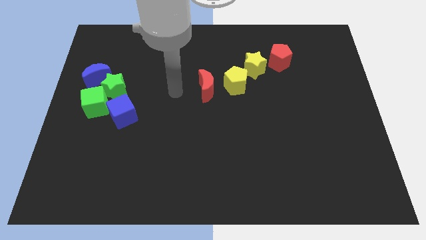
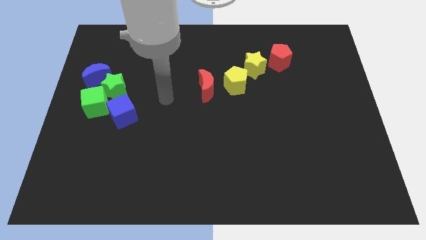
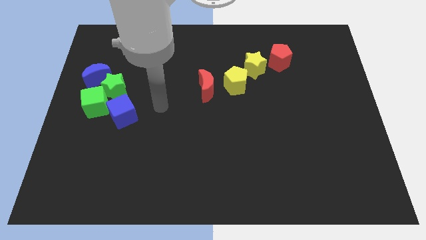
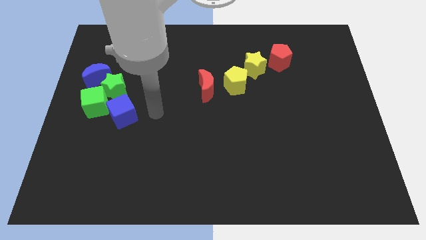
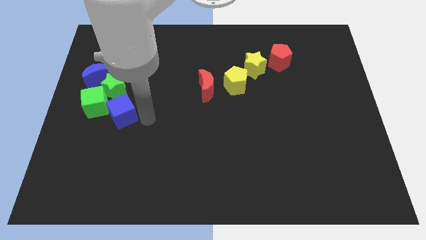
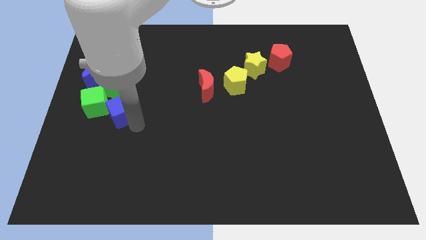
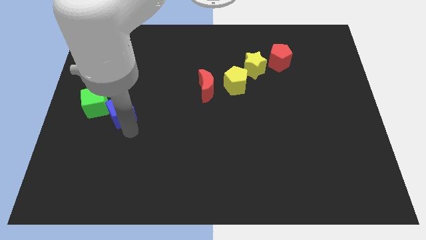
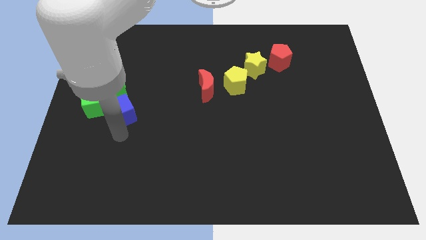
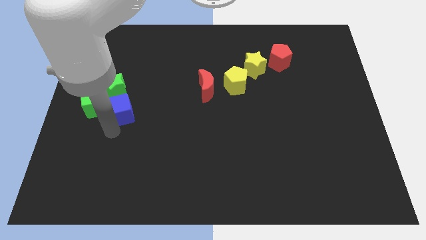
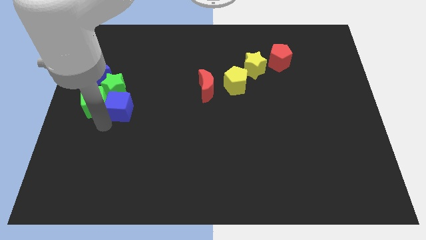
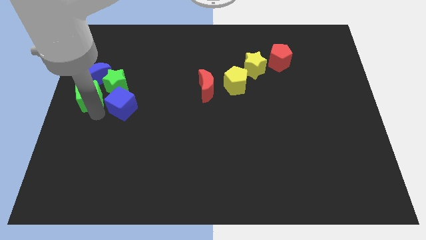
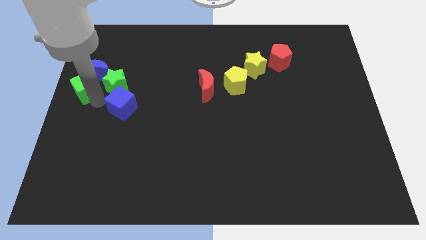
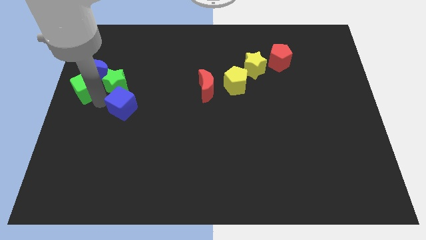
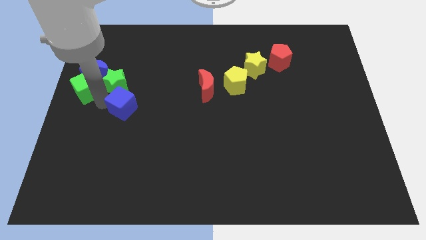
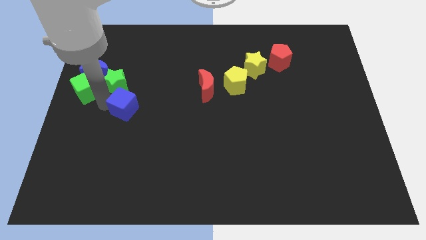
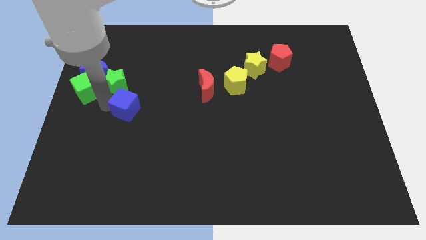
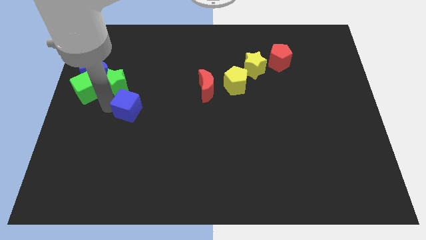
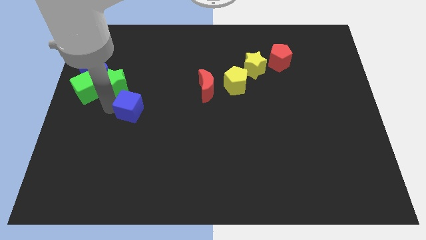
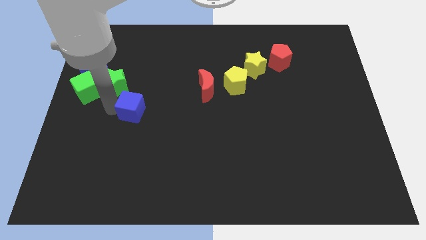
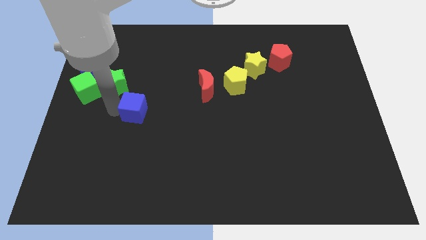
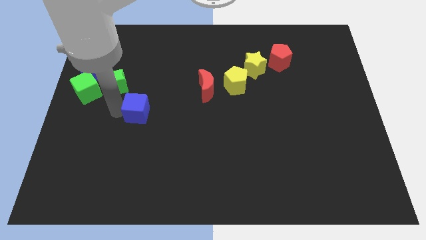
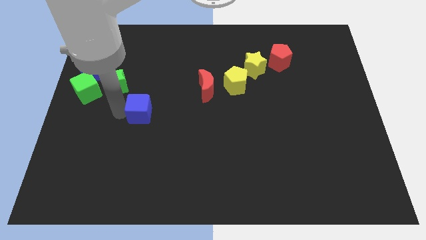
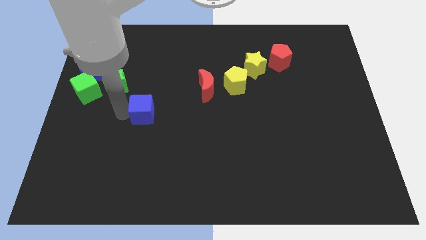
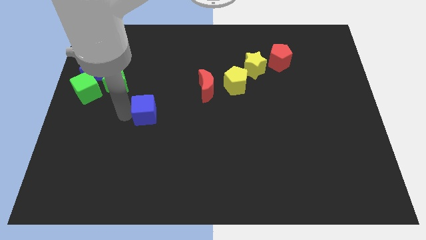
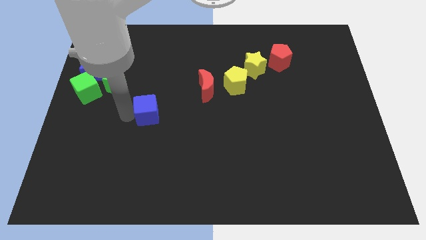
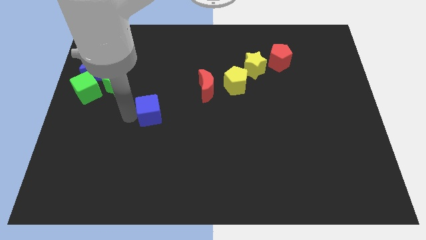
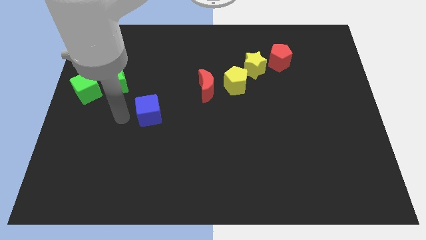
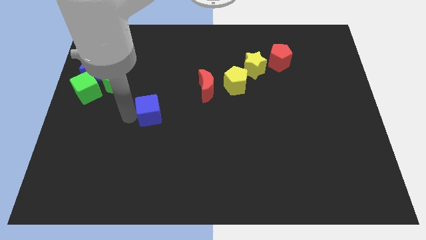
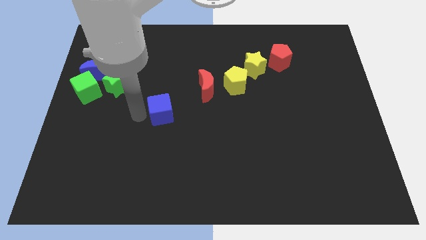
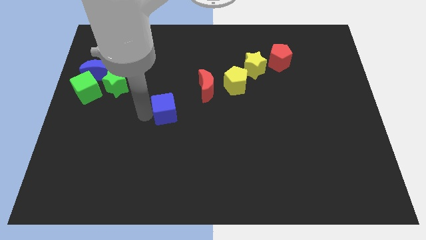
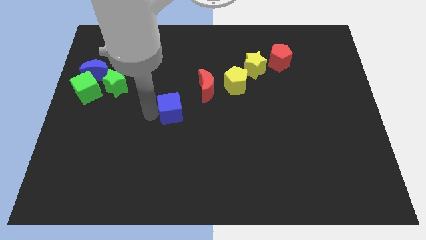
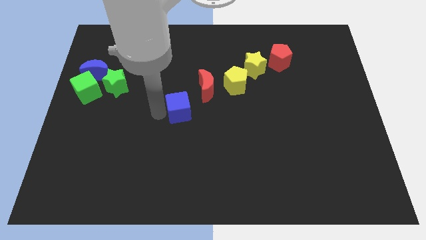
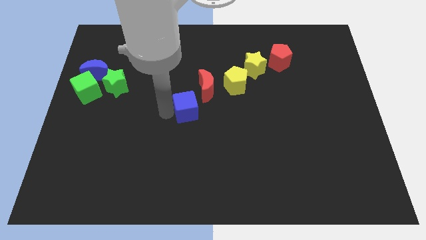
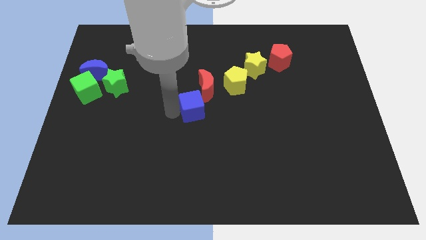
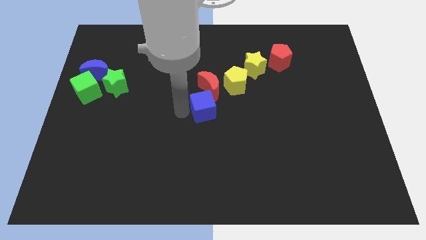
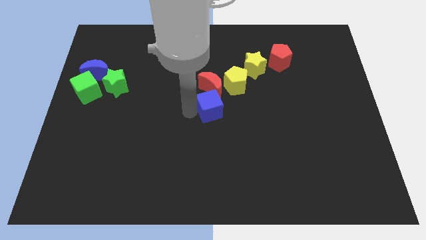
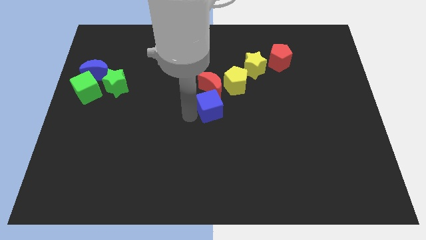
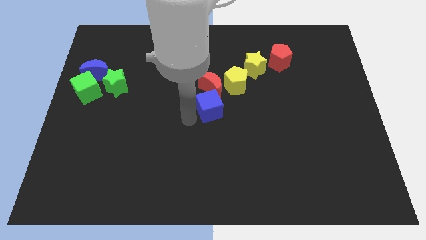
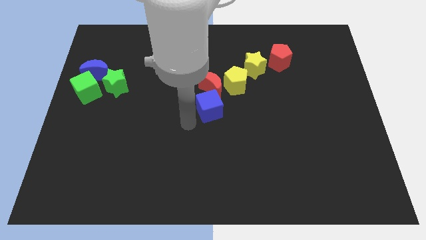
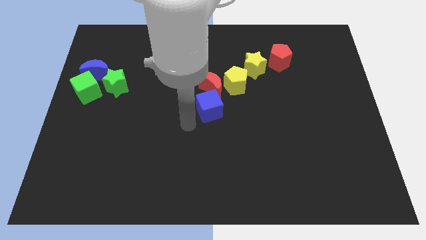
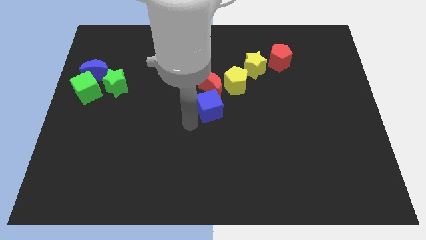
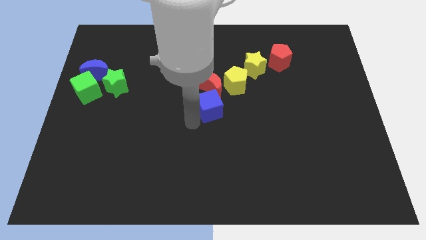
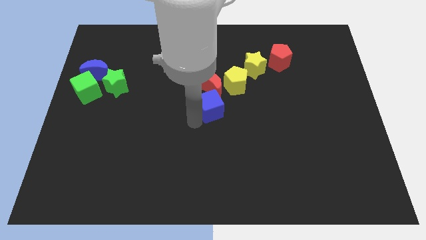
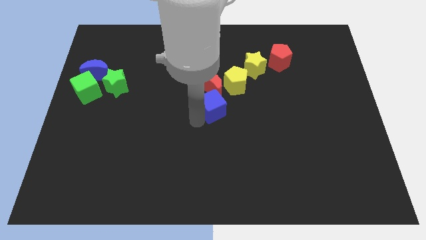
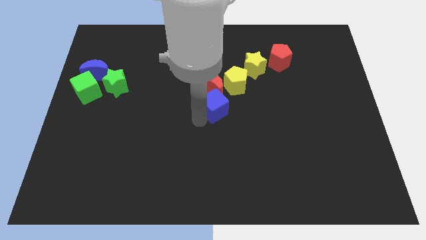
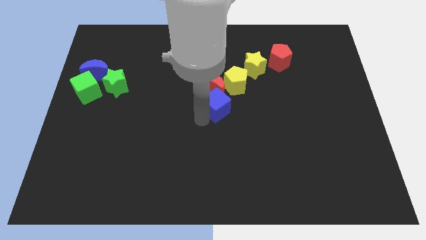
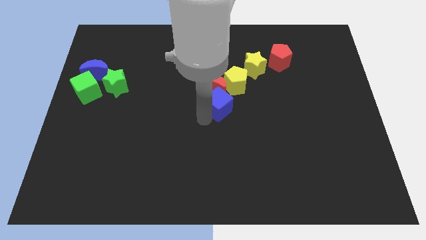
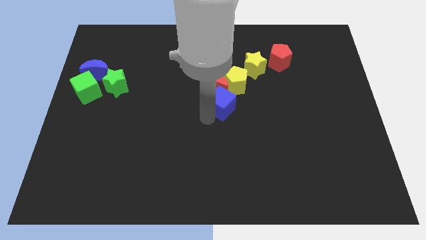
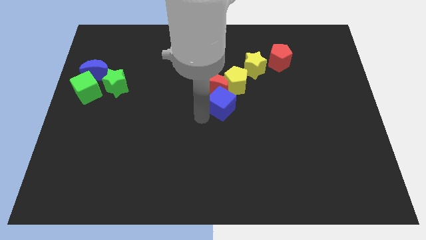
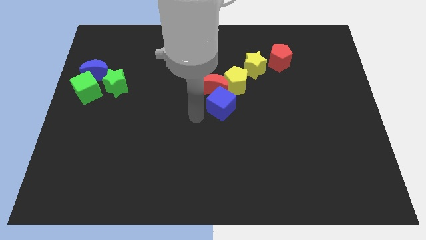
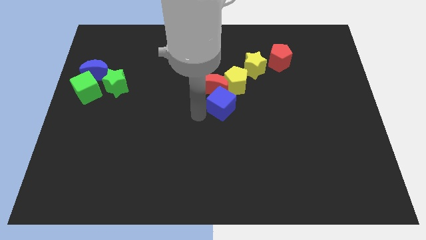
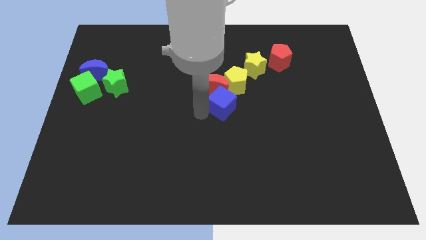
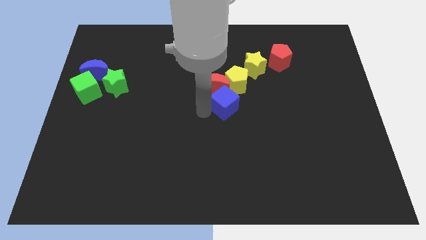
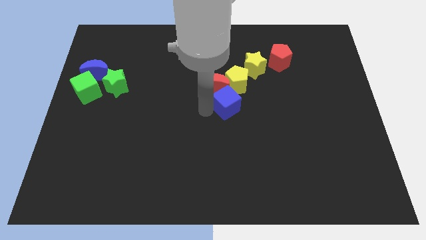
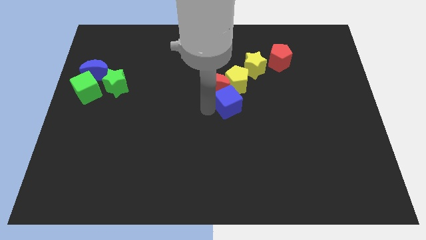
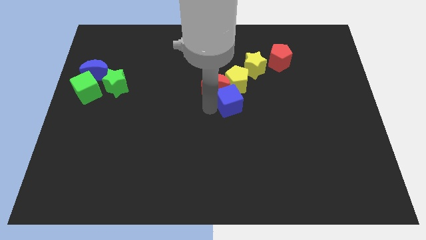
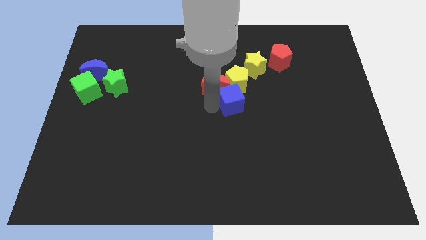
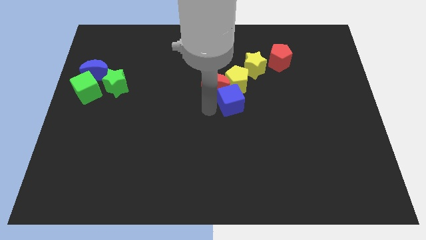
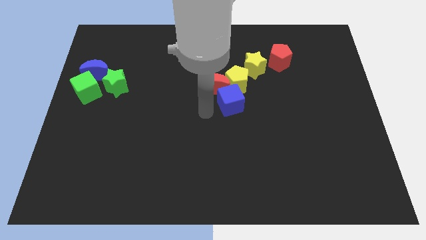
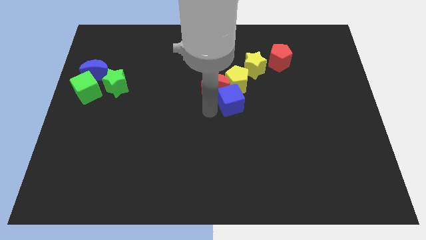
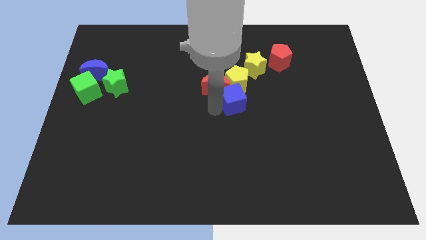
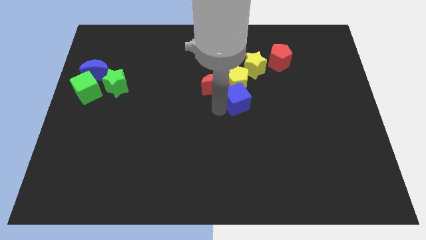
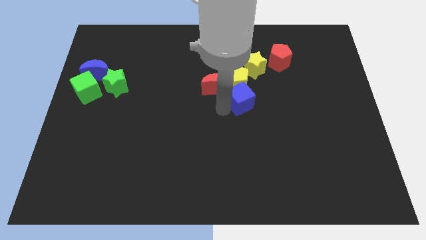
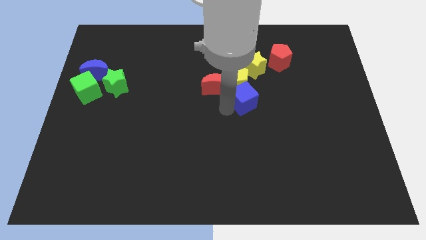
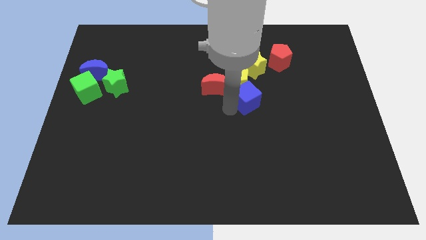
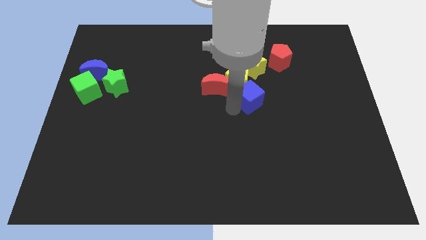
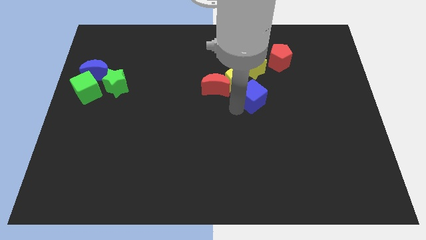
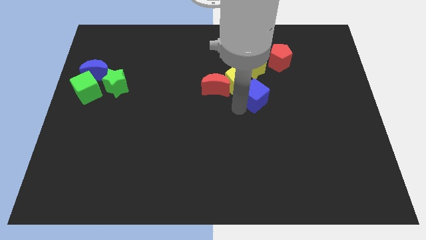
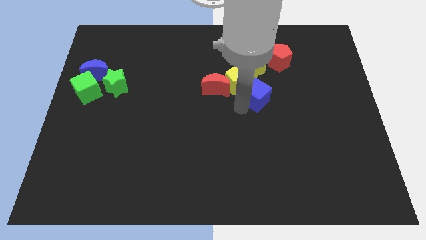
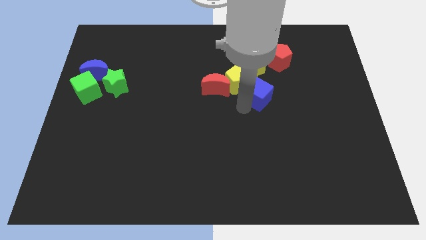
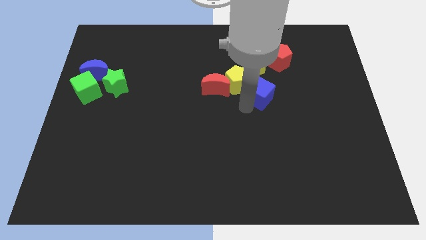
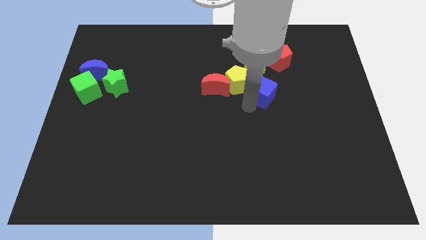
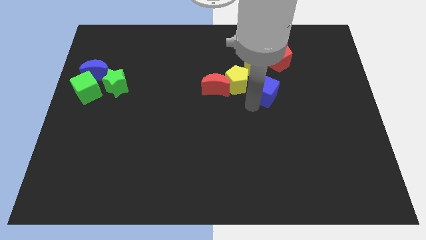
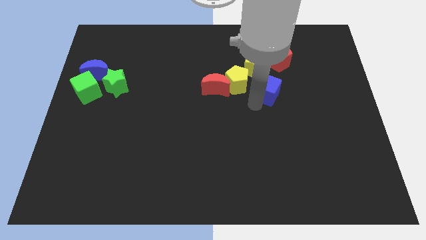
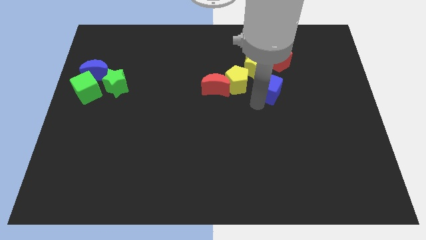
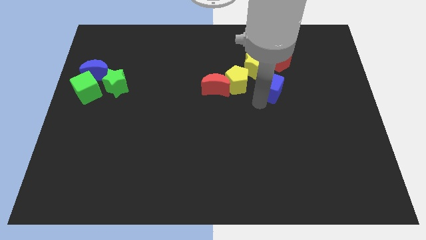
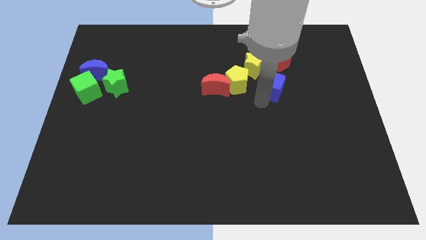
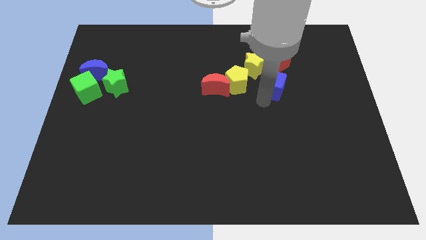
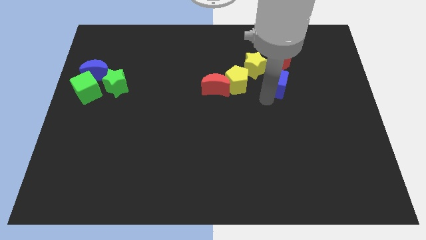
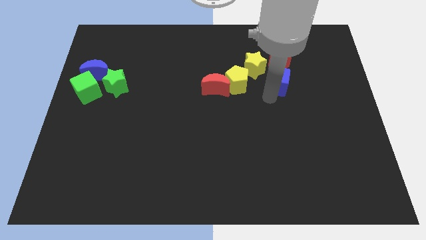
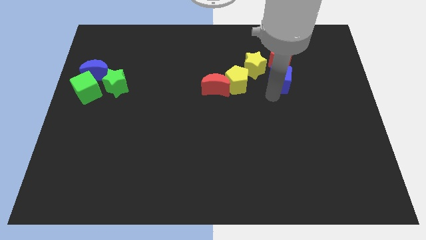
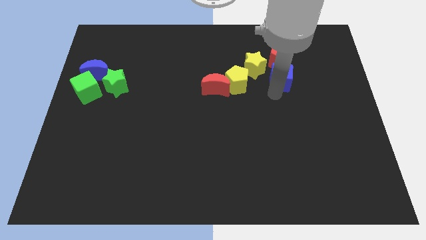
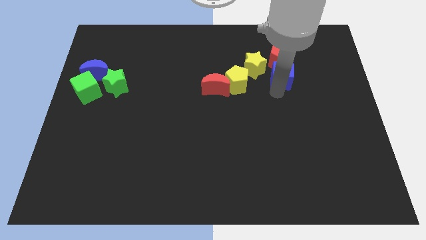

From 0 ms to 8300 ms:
move the blue cube towards the red pentagon
